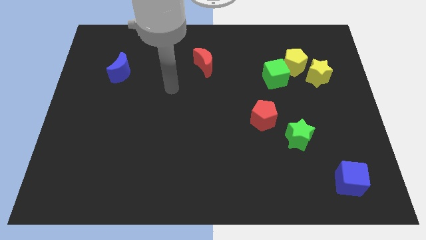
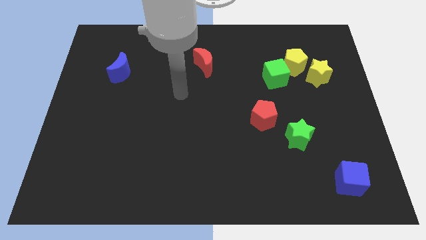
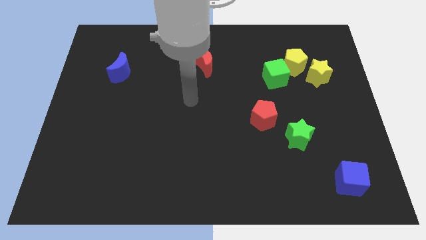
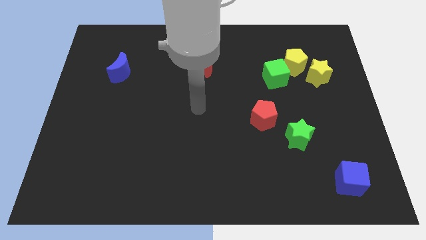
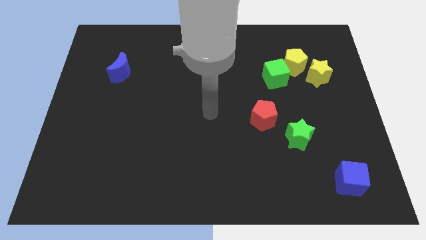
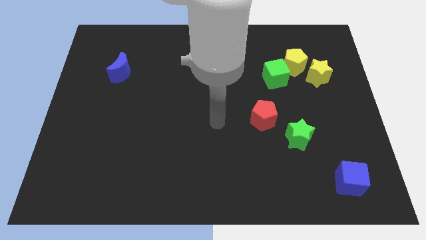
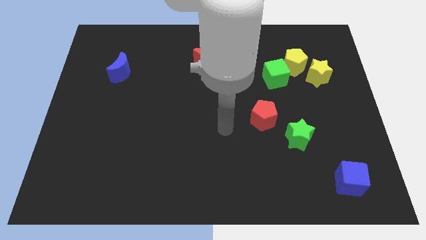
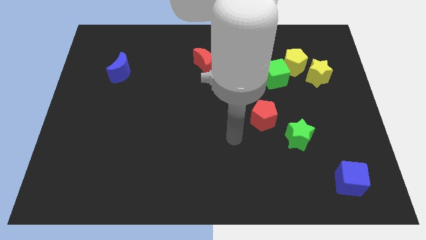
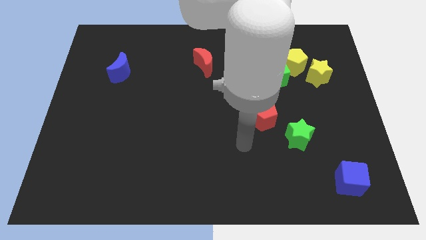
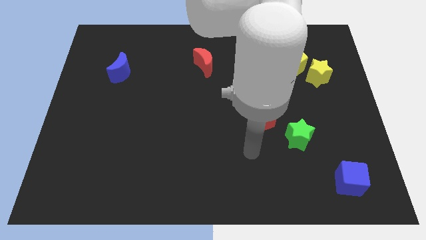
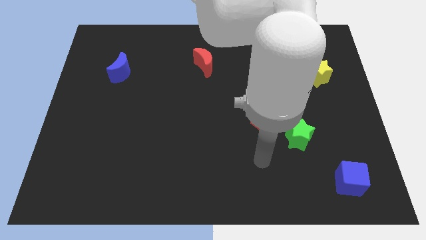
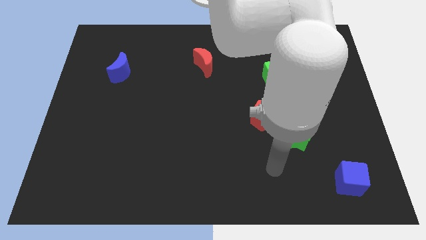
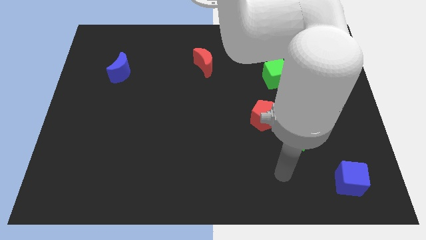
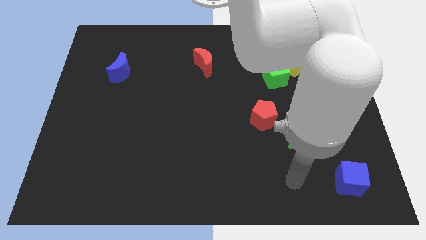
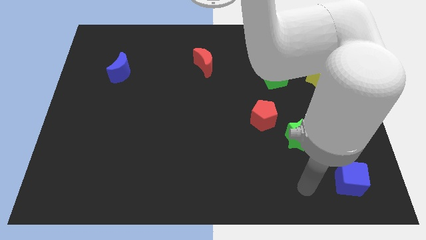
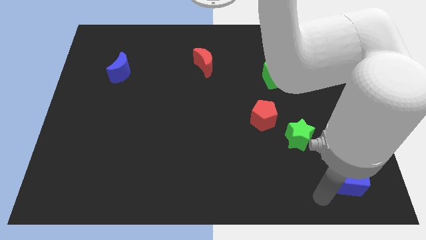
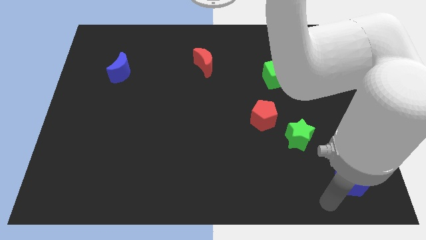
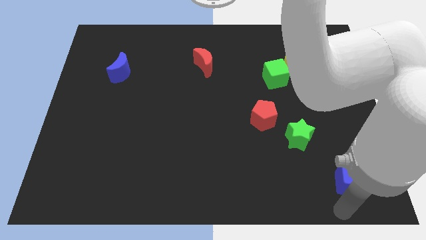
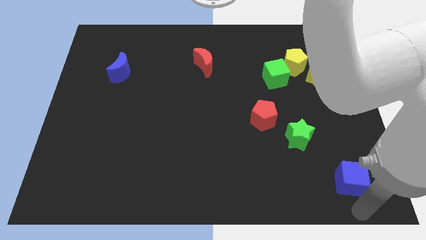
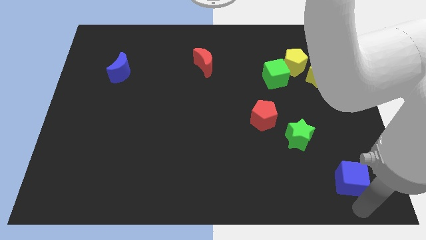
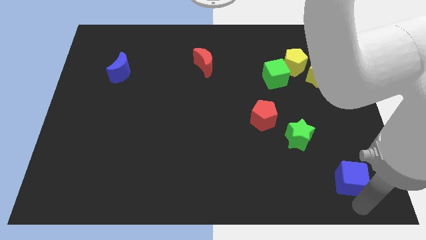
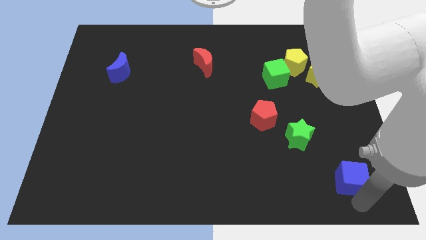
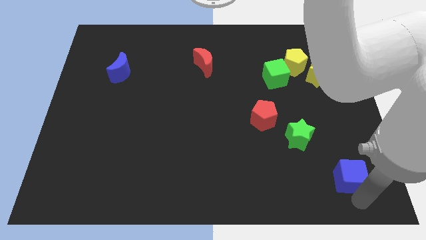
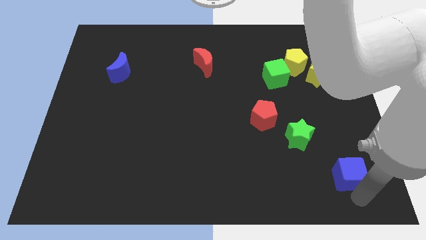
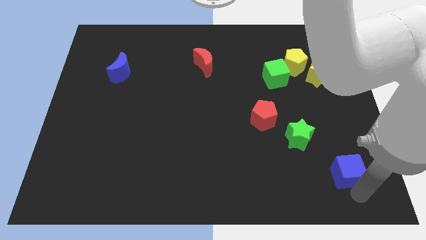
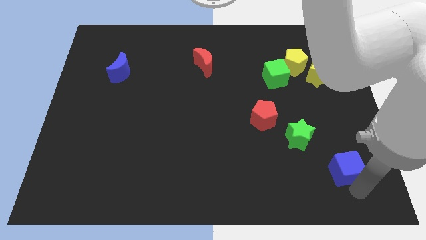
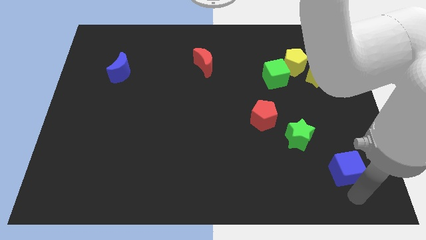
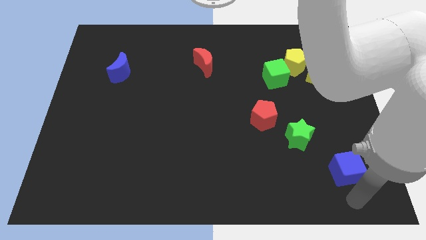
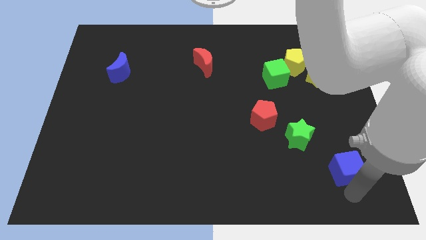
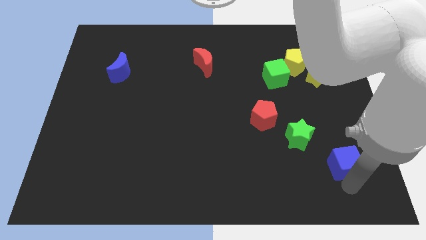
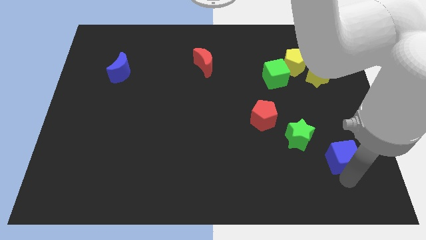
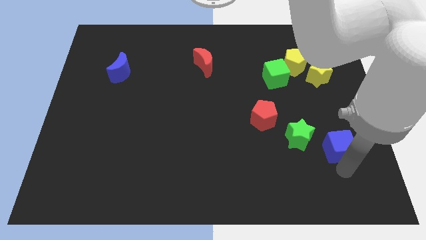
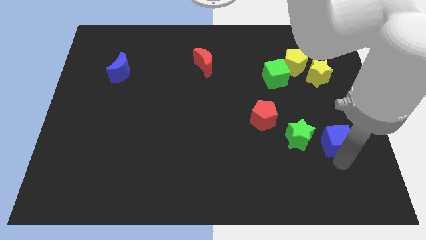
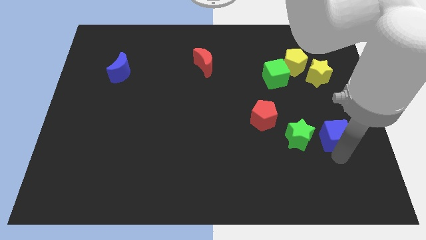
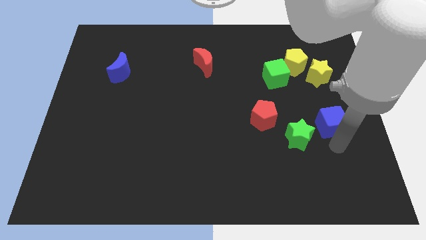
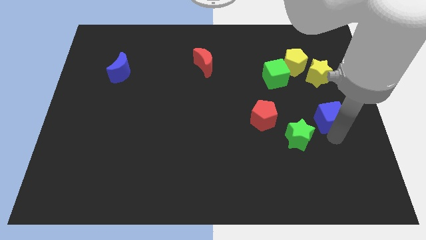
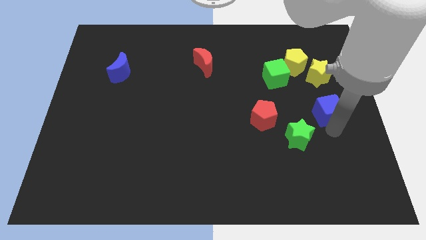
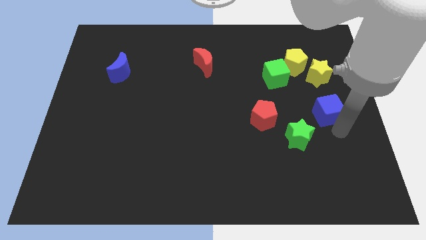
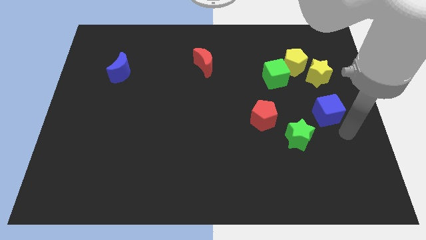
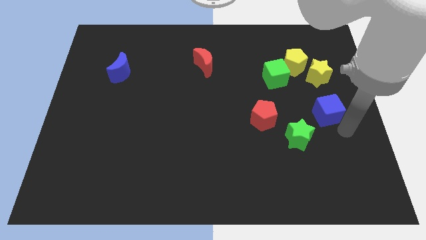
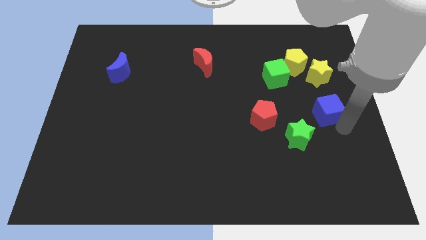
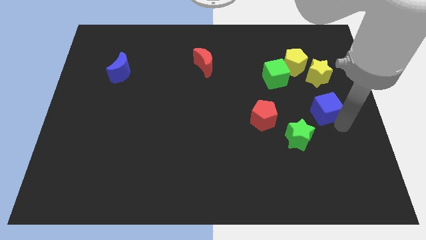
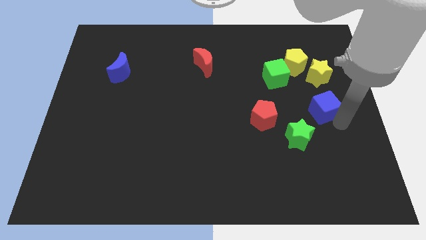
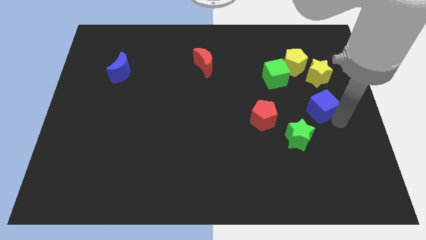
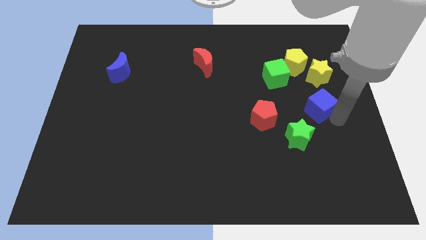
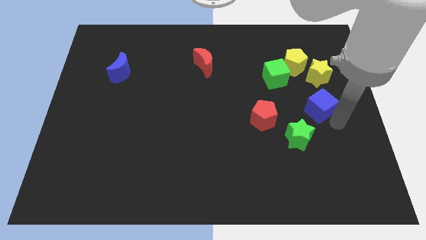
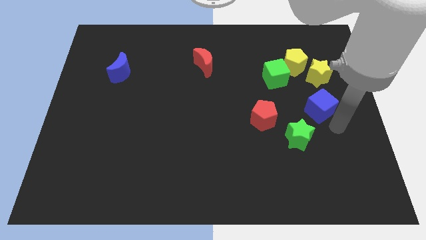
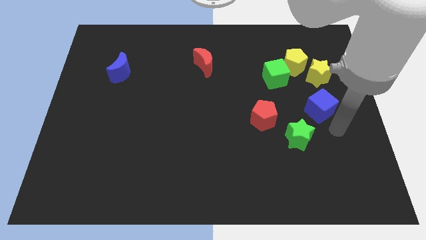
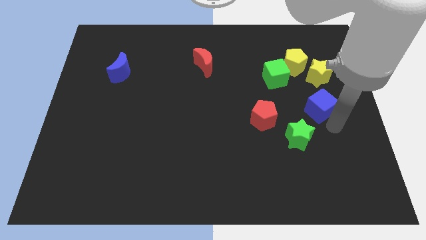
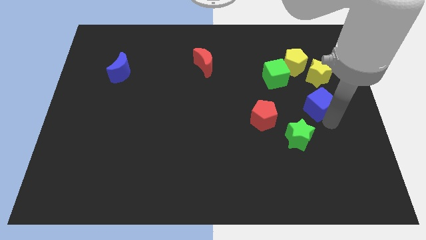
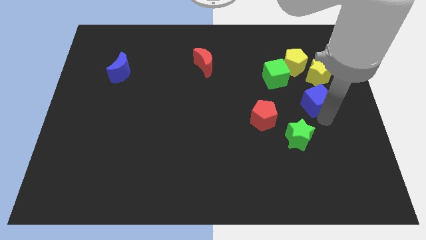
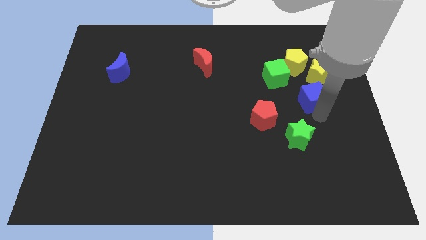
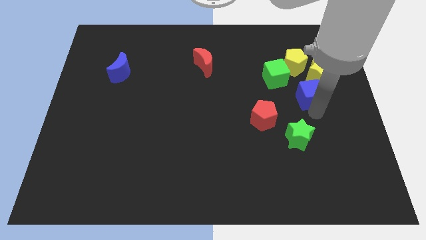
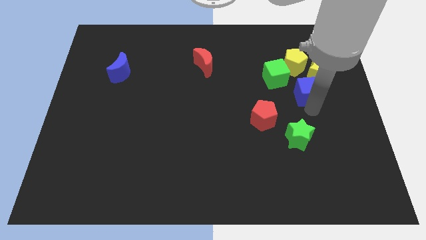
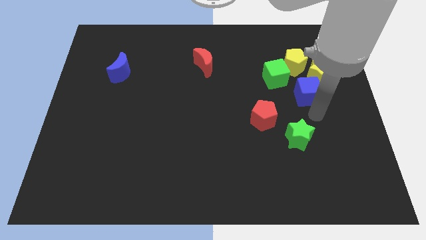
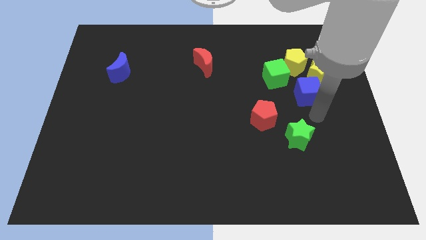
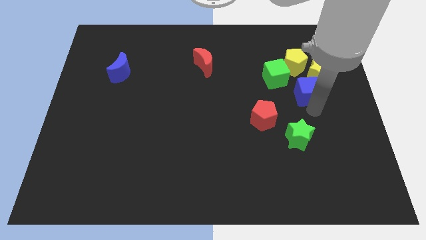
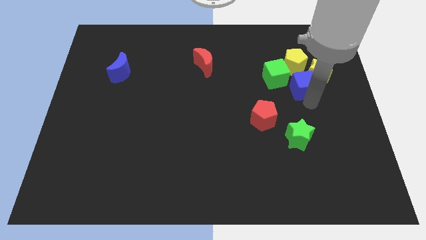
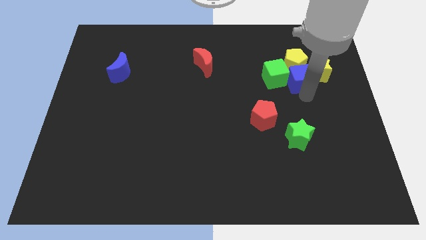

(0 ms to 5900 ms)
put the blue cube towards the yellow pentagon
